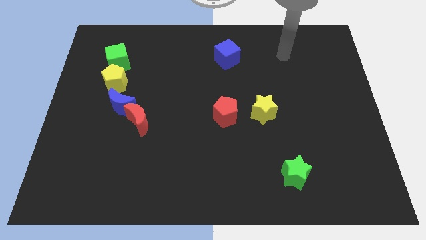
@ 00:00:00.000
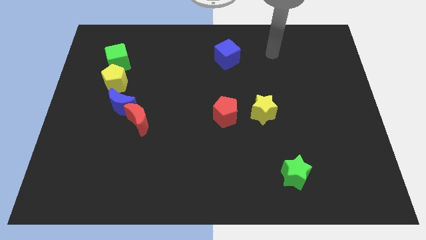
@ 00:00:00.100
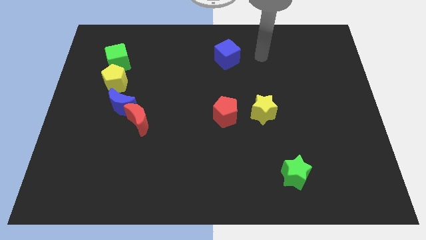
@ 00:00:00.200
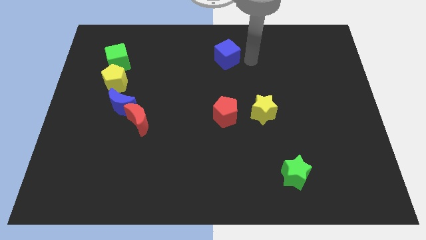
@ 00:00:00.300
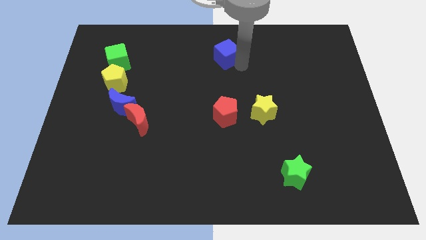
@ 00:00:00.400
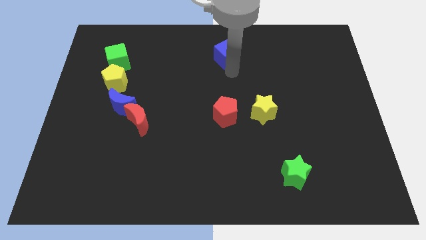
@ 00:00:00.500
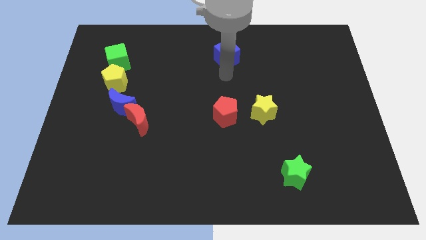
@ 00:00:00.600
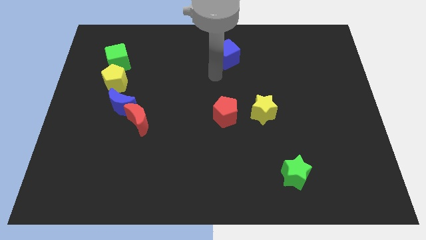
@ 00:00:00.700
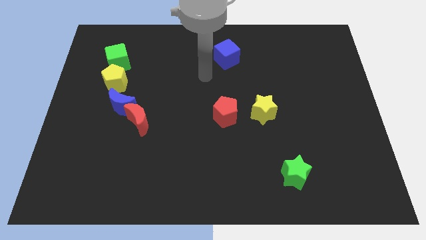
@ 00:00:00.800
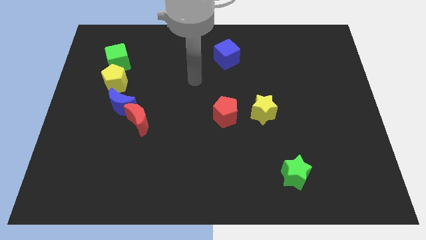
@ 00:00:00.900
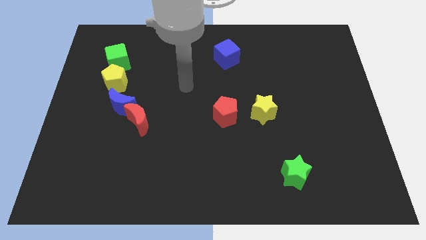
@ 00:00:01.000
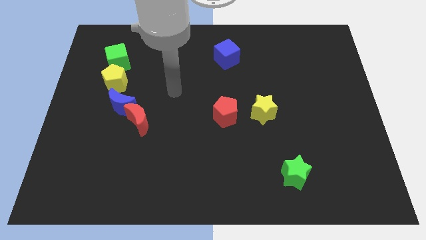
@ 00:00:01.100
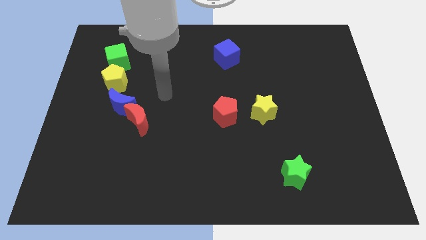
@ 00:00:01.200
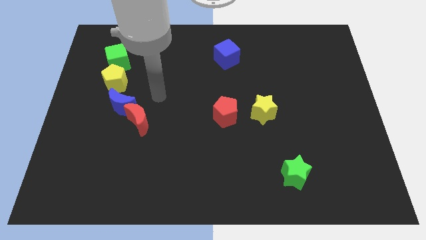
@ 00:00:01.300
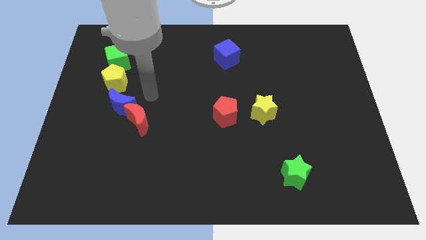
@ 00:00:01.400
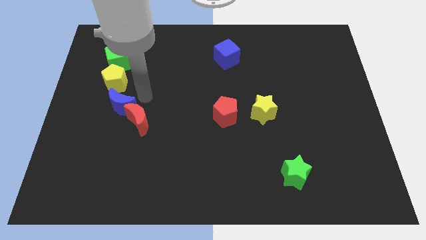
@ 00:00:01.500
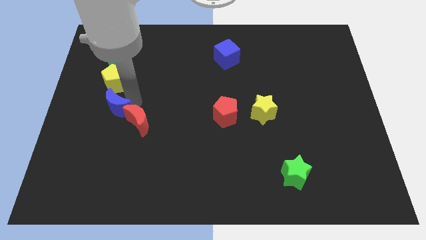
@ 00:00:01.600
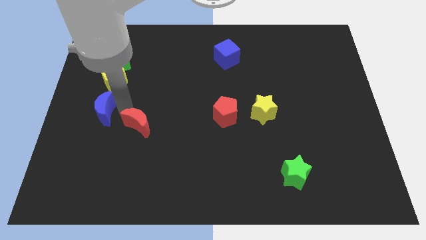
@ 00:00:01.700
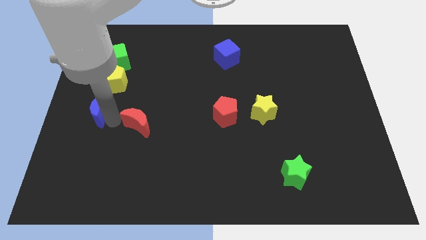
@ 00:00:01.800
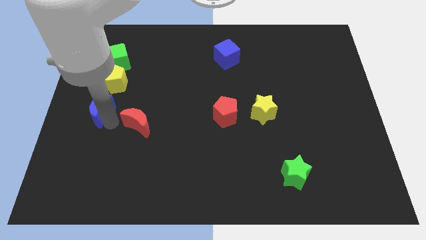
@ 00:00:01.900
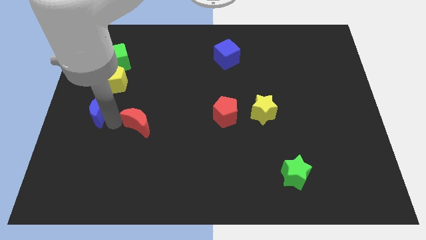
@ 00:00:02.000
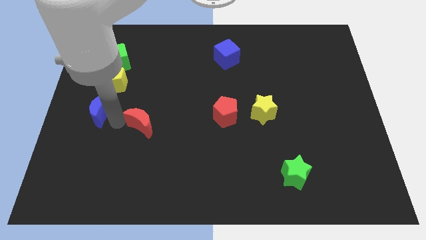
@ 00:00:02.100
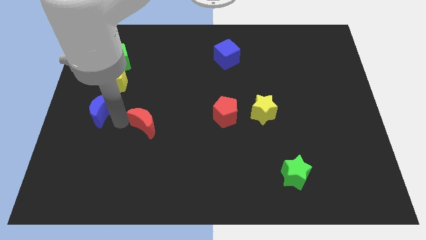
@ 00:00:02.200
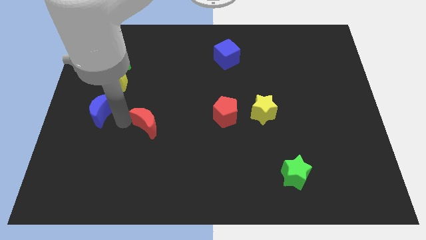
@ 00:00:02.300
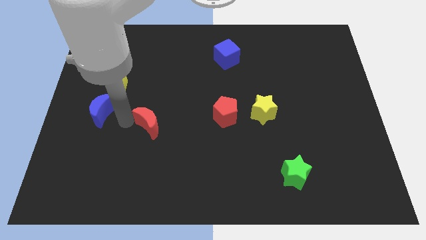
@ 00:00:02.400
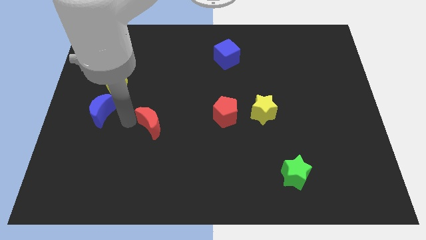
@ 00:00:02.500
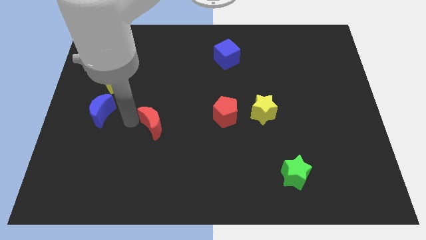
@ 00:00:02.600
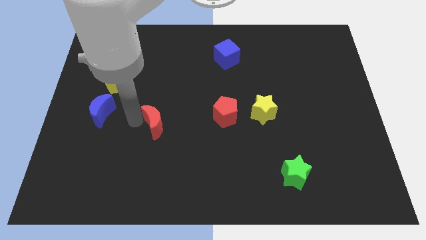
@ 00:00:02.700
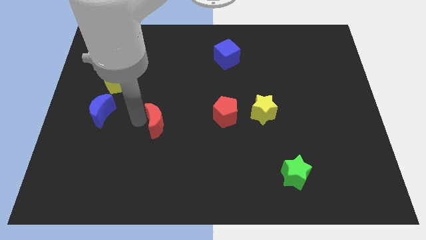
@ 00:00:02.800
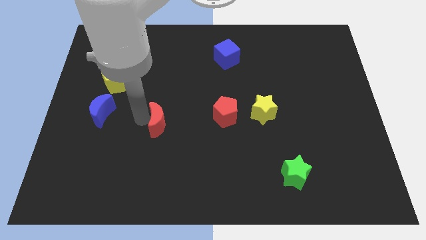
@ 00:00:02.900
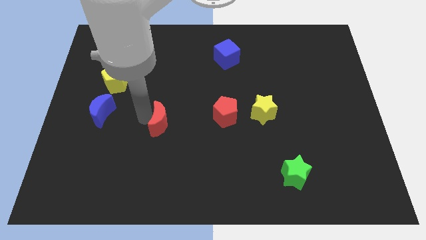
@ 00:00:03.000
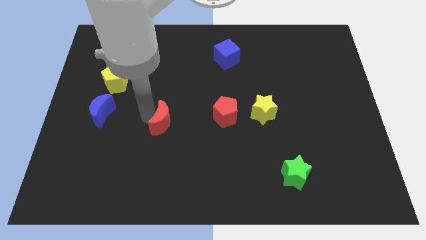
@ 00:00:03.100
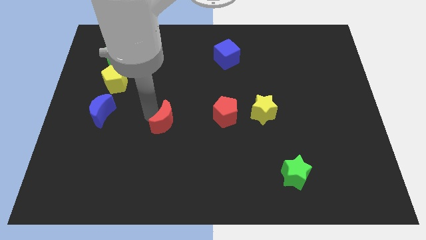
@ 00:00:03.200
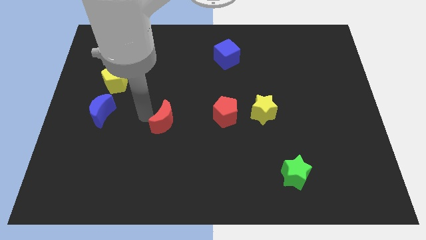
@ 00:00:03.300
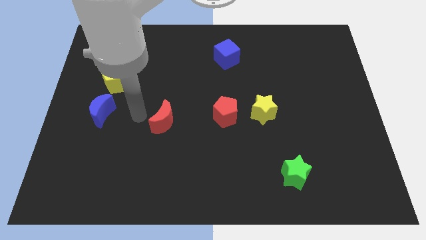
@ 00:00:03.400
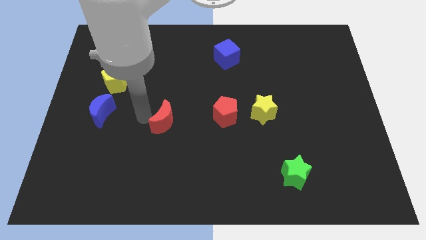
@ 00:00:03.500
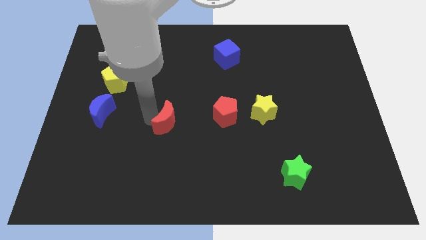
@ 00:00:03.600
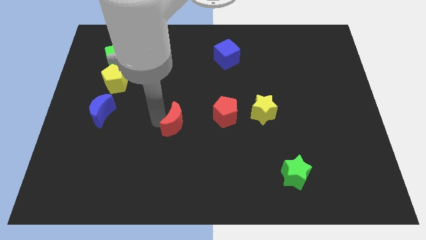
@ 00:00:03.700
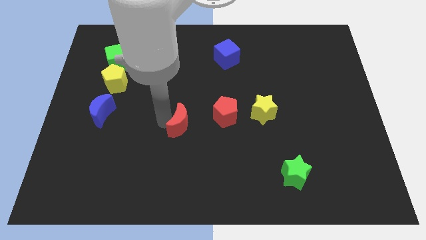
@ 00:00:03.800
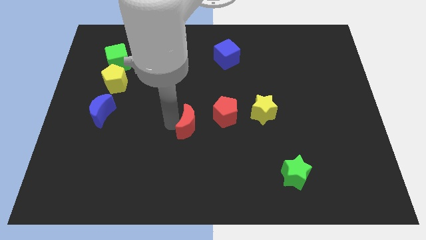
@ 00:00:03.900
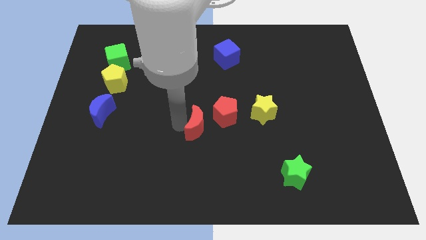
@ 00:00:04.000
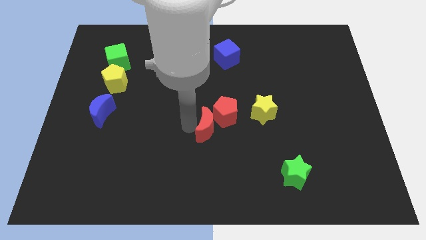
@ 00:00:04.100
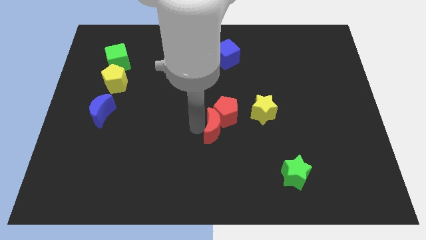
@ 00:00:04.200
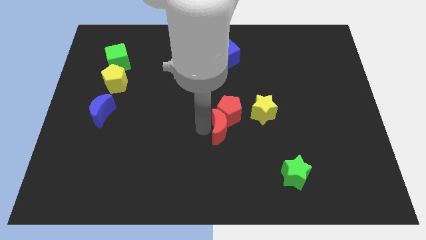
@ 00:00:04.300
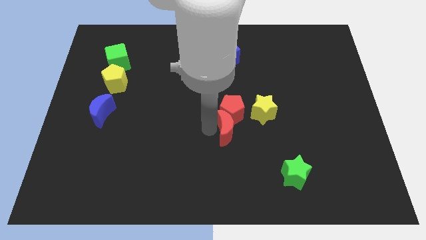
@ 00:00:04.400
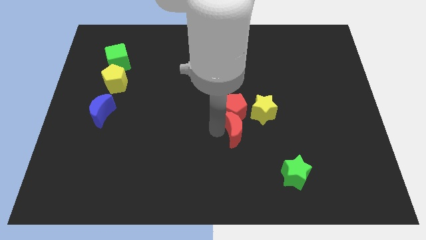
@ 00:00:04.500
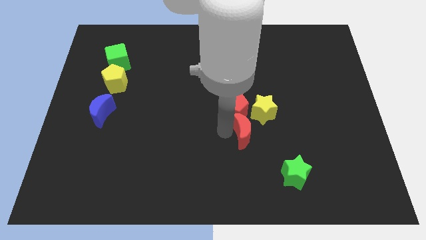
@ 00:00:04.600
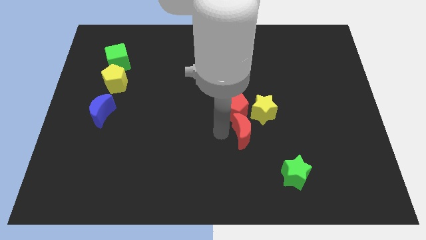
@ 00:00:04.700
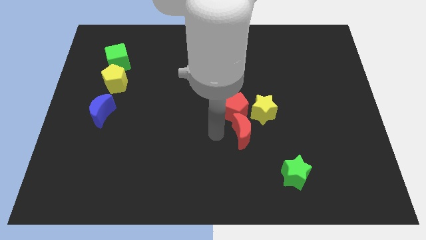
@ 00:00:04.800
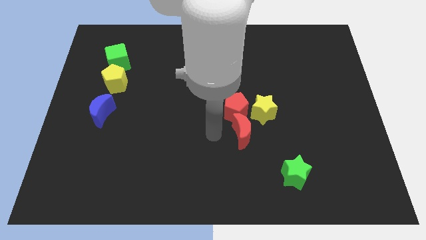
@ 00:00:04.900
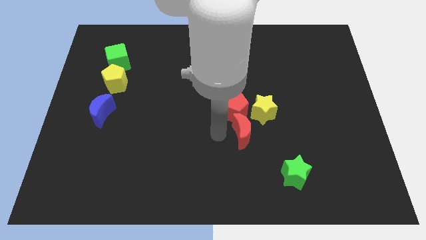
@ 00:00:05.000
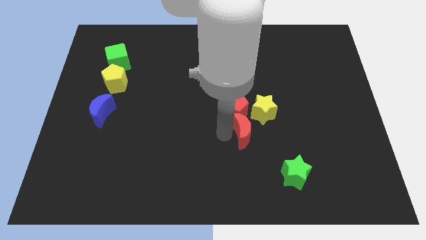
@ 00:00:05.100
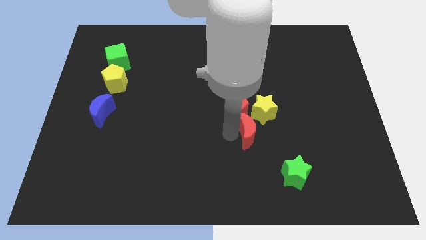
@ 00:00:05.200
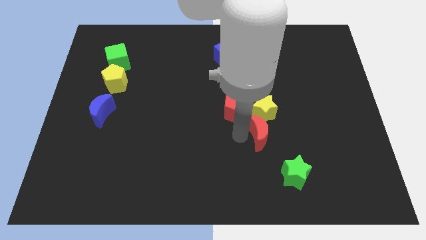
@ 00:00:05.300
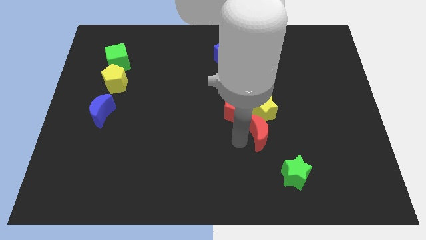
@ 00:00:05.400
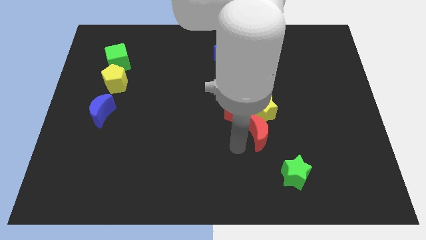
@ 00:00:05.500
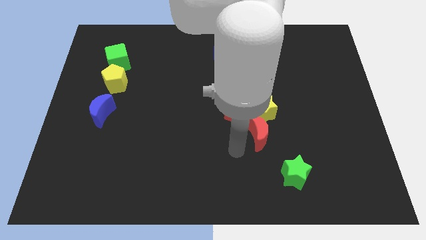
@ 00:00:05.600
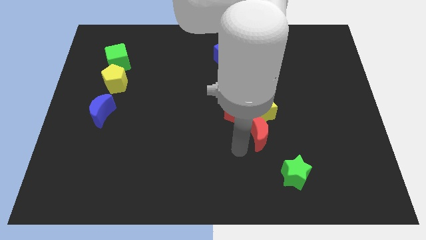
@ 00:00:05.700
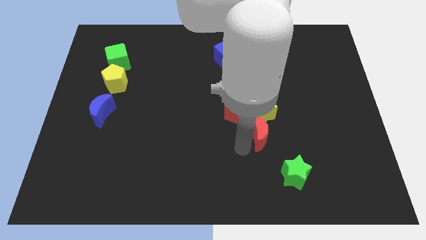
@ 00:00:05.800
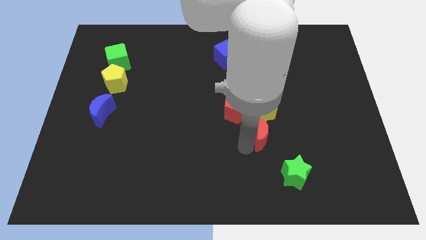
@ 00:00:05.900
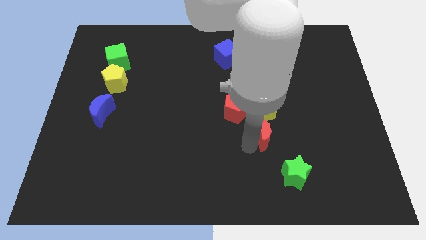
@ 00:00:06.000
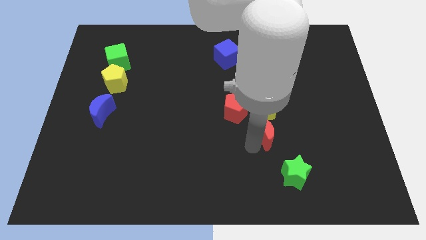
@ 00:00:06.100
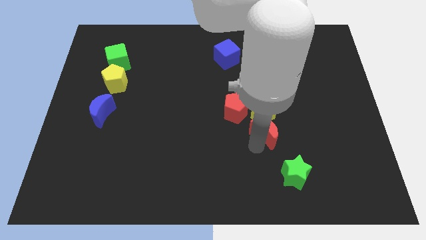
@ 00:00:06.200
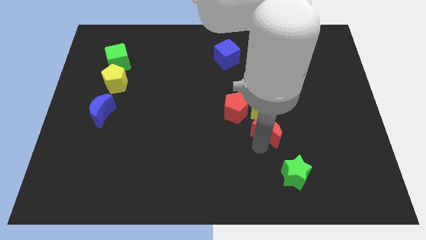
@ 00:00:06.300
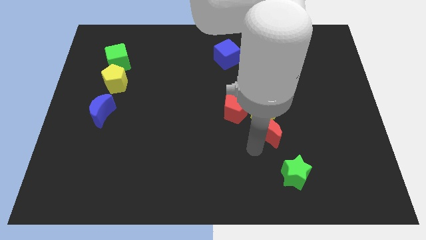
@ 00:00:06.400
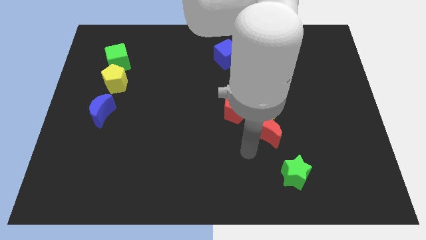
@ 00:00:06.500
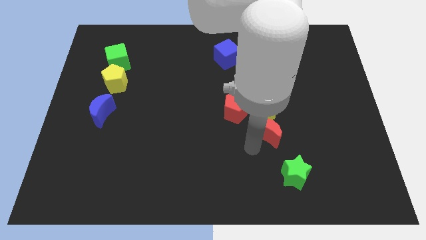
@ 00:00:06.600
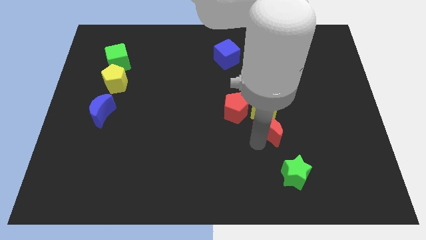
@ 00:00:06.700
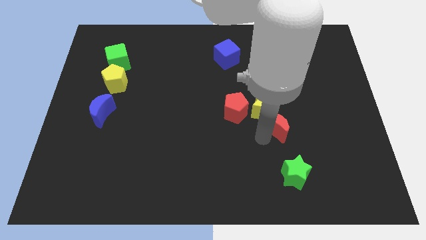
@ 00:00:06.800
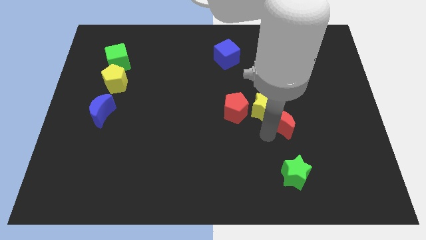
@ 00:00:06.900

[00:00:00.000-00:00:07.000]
slide the red moon to the right of the yellow star
